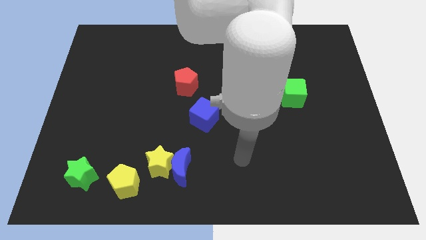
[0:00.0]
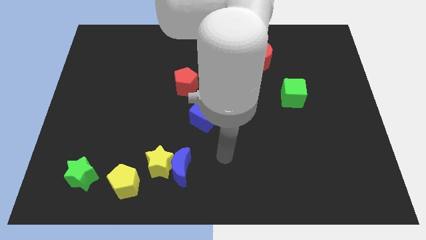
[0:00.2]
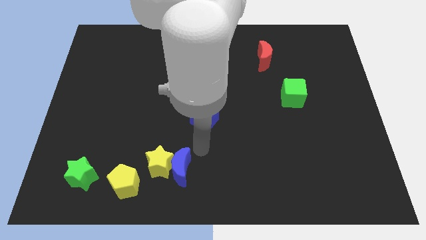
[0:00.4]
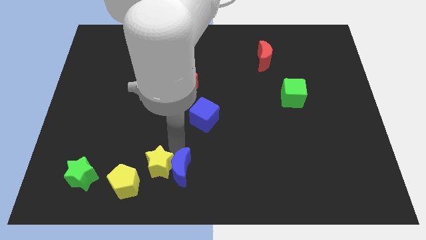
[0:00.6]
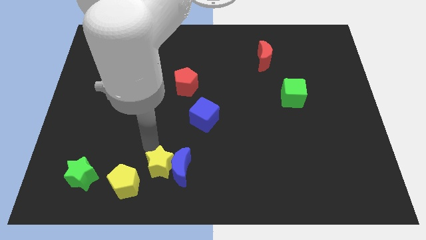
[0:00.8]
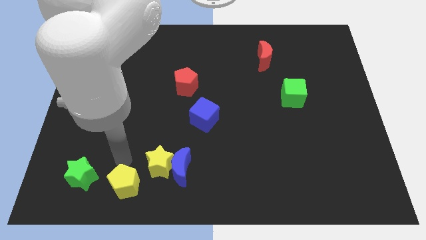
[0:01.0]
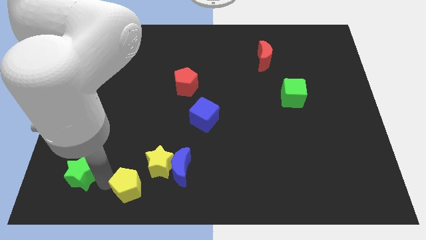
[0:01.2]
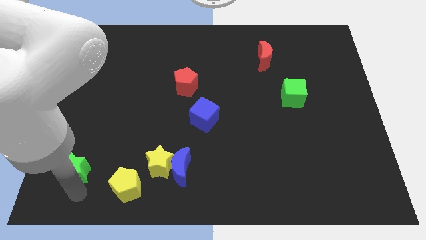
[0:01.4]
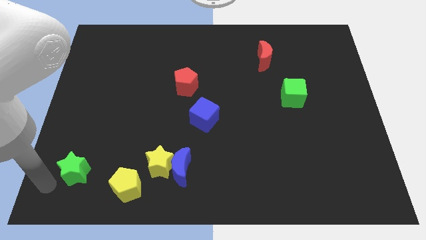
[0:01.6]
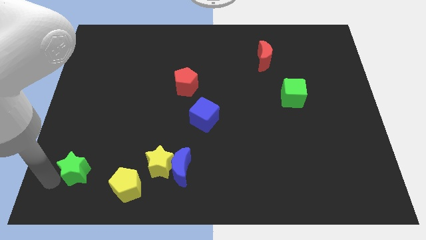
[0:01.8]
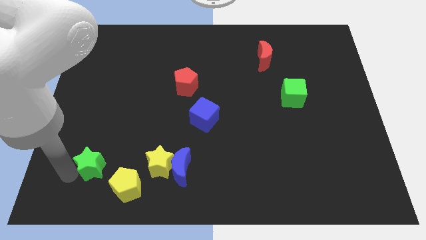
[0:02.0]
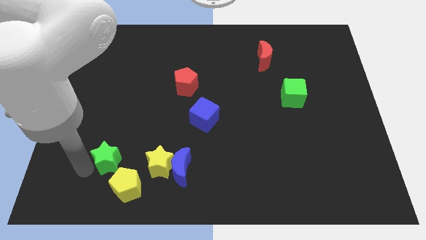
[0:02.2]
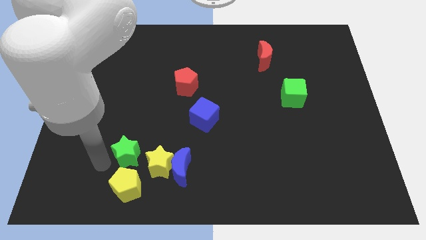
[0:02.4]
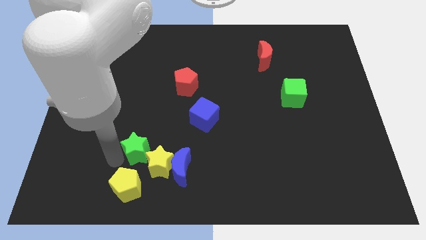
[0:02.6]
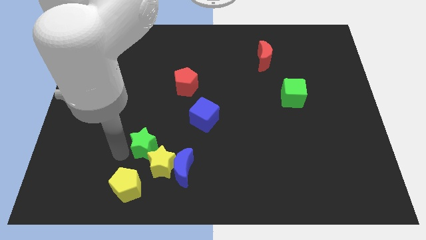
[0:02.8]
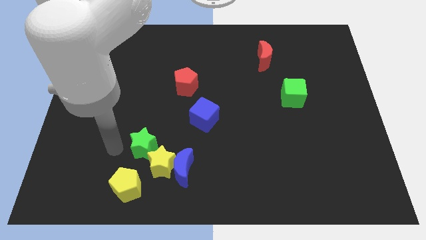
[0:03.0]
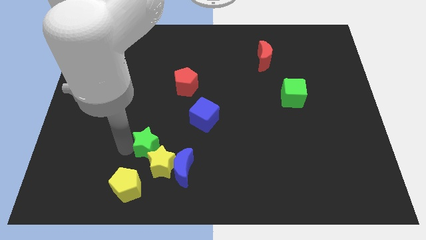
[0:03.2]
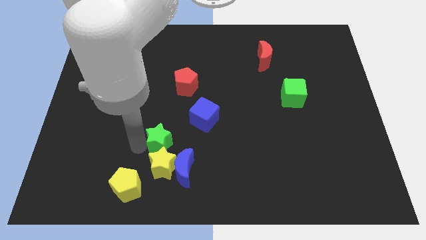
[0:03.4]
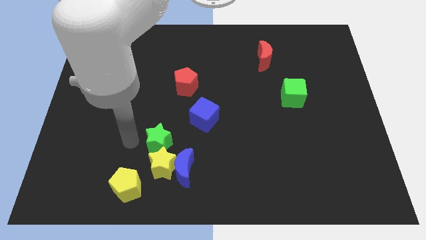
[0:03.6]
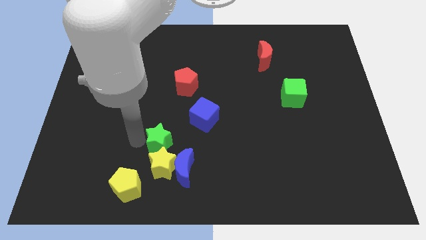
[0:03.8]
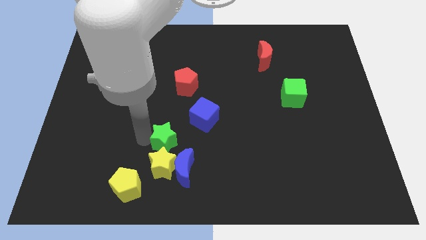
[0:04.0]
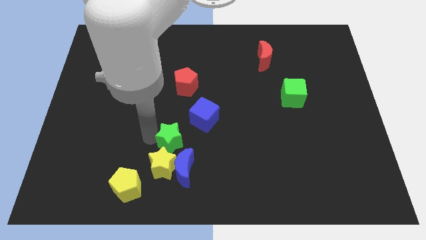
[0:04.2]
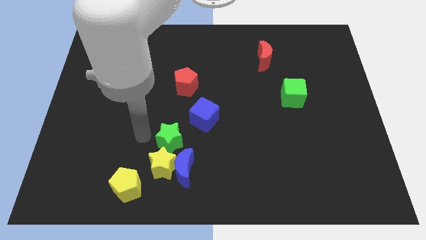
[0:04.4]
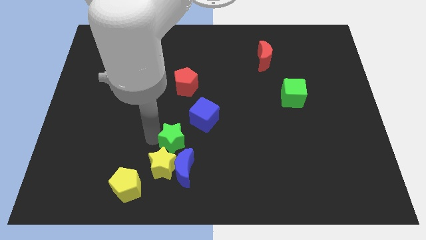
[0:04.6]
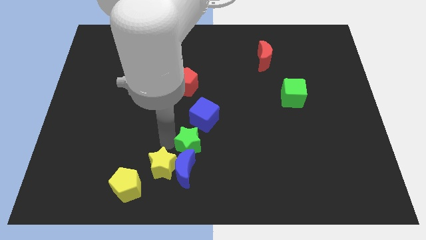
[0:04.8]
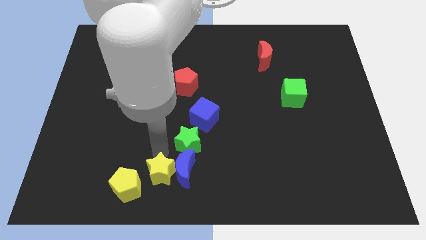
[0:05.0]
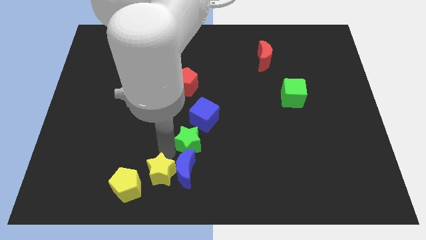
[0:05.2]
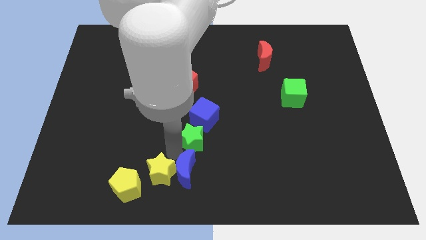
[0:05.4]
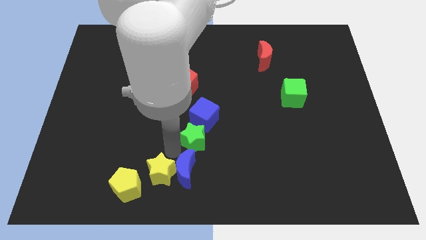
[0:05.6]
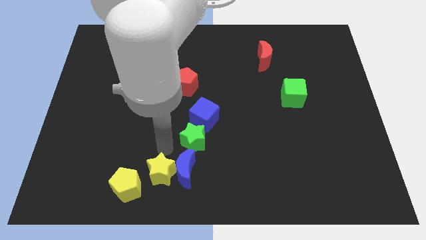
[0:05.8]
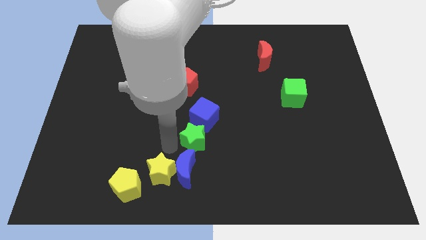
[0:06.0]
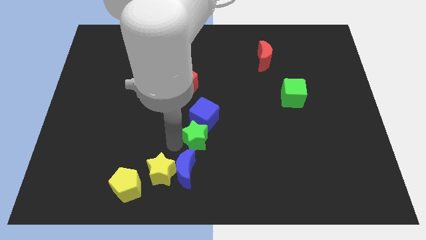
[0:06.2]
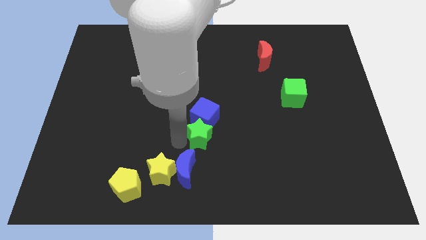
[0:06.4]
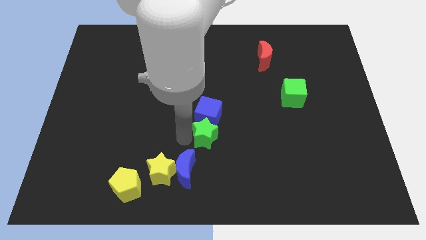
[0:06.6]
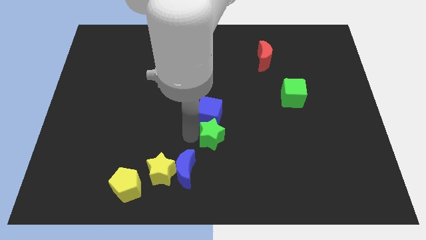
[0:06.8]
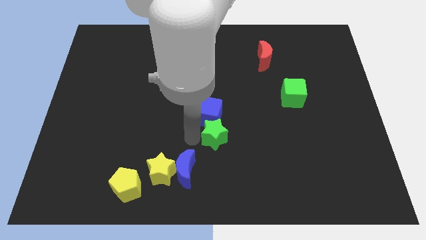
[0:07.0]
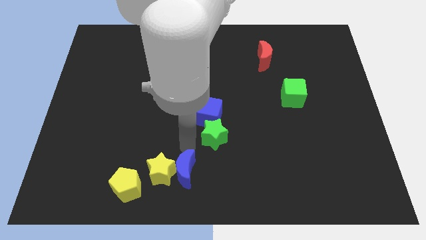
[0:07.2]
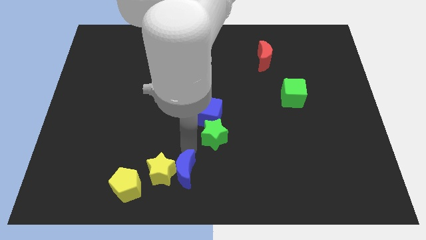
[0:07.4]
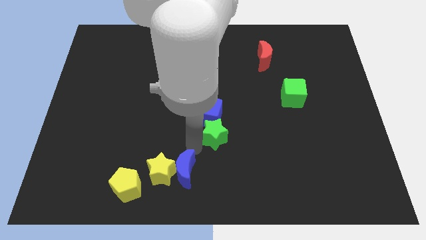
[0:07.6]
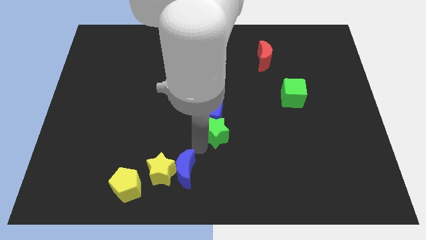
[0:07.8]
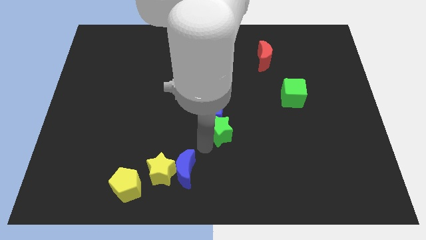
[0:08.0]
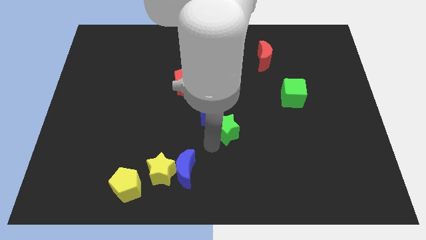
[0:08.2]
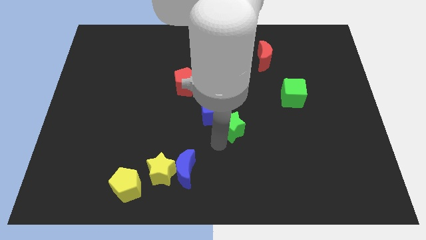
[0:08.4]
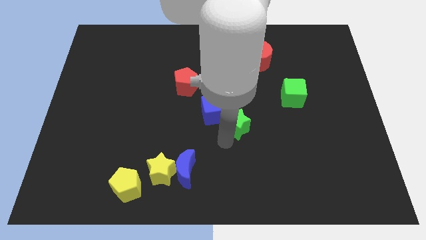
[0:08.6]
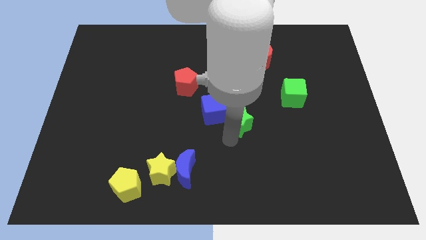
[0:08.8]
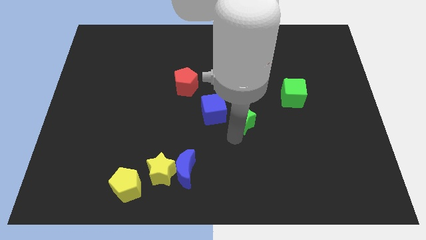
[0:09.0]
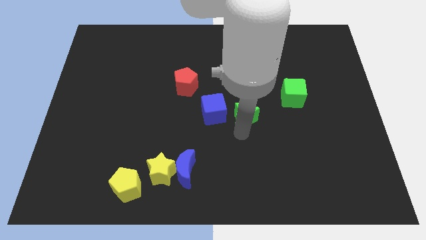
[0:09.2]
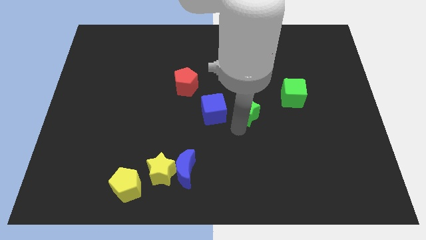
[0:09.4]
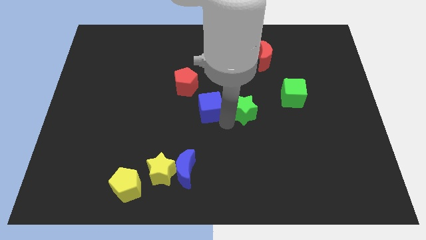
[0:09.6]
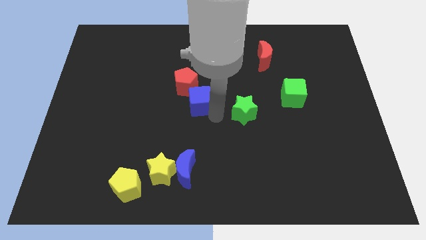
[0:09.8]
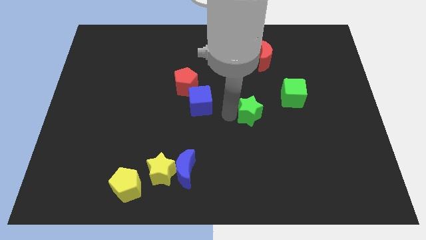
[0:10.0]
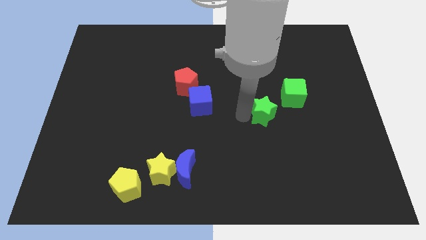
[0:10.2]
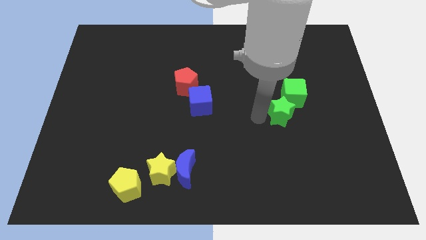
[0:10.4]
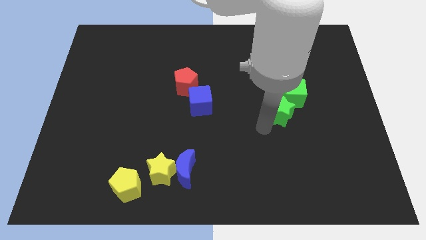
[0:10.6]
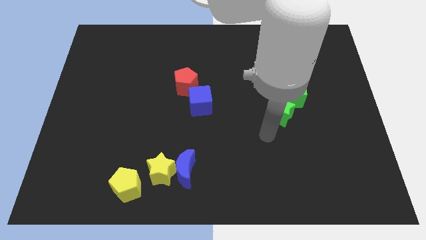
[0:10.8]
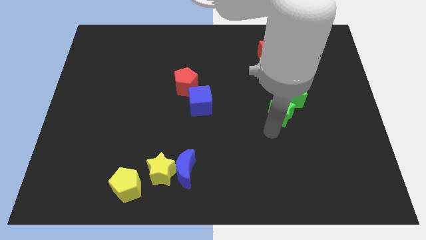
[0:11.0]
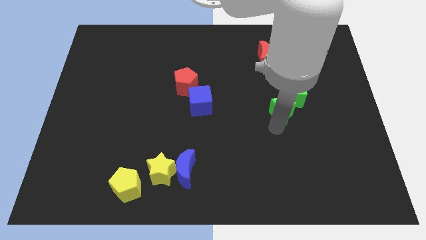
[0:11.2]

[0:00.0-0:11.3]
slide the green star next to the green cube

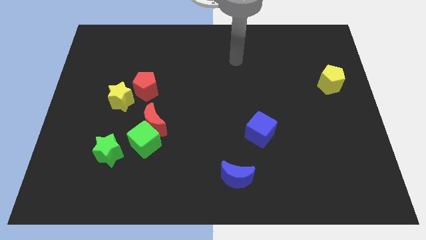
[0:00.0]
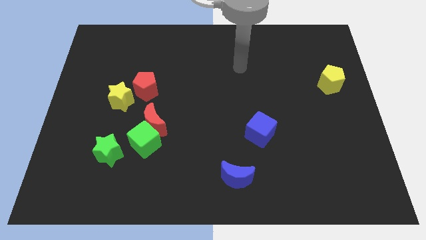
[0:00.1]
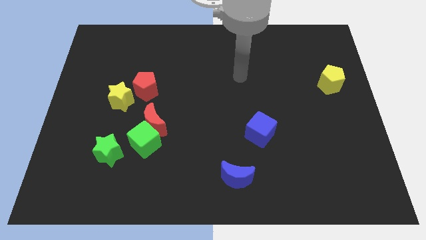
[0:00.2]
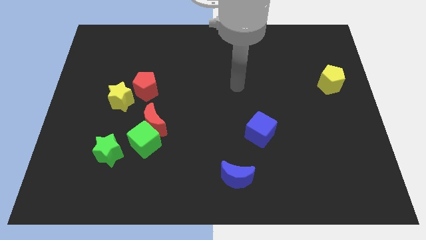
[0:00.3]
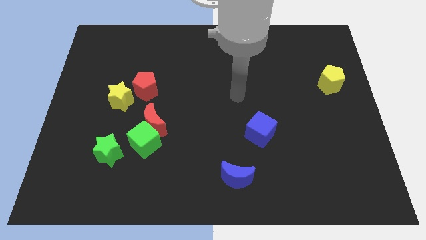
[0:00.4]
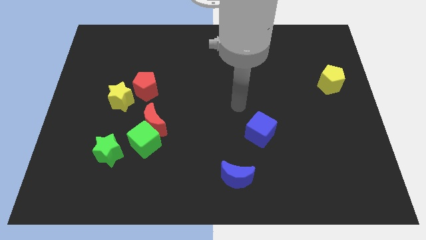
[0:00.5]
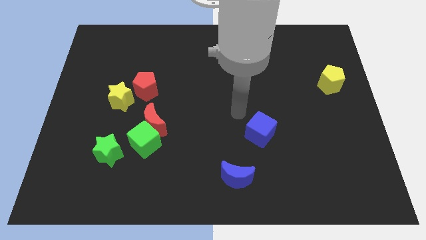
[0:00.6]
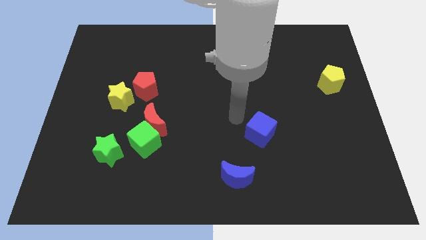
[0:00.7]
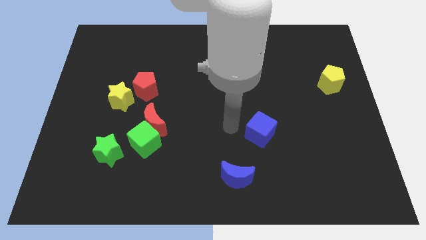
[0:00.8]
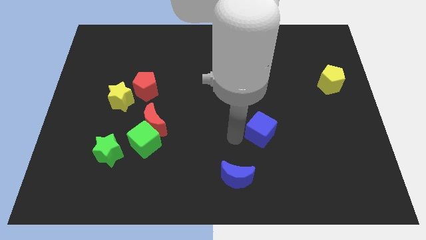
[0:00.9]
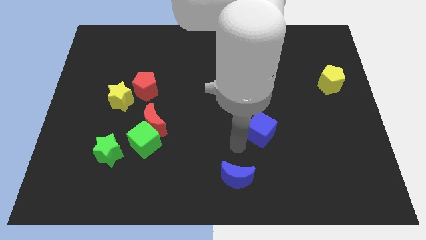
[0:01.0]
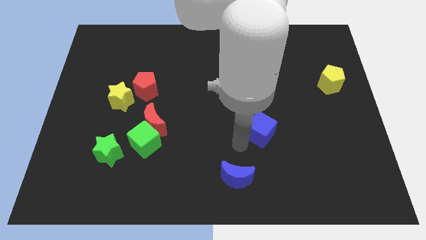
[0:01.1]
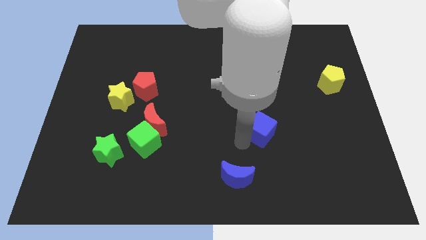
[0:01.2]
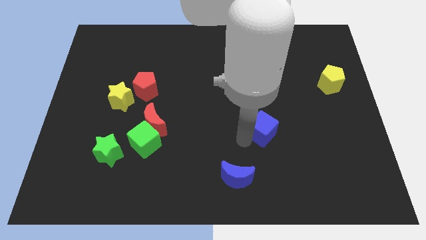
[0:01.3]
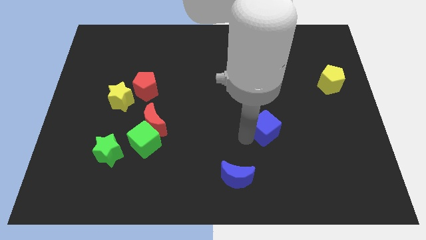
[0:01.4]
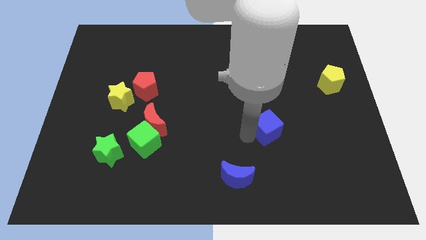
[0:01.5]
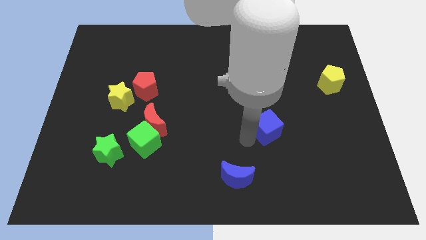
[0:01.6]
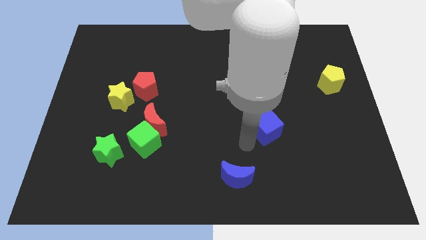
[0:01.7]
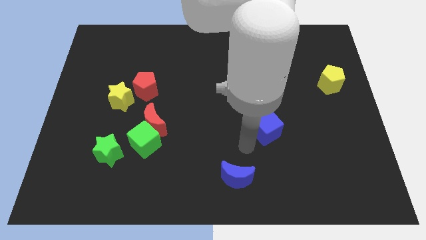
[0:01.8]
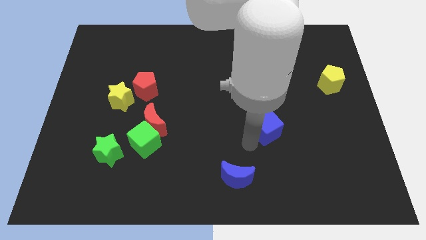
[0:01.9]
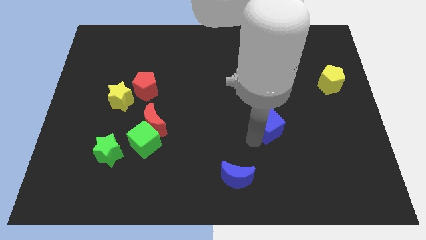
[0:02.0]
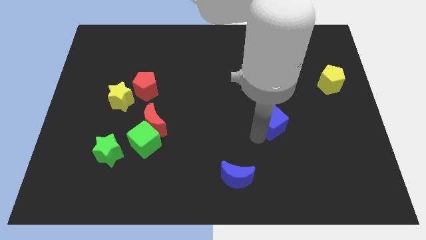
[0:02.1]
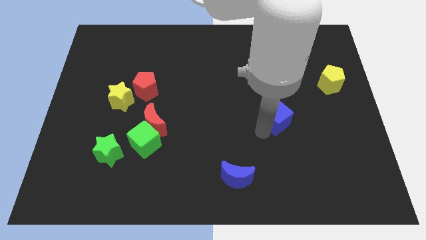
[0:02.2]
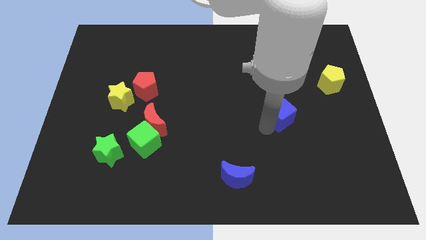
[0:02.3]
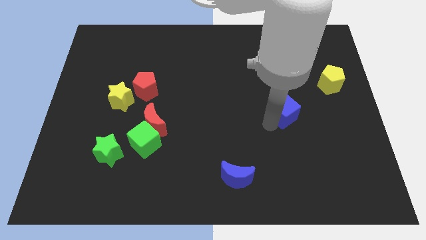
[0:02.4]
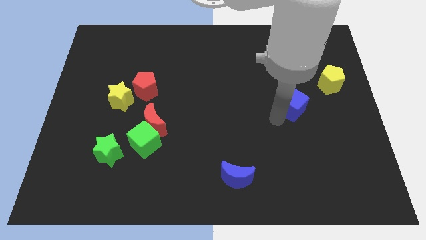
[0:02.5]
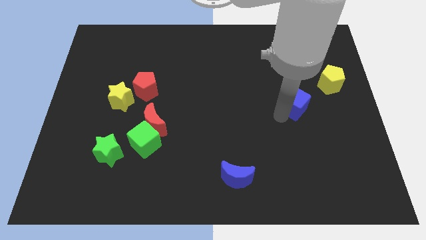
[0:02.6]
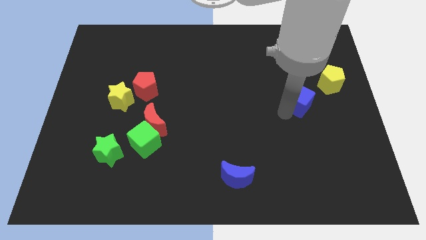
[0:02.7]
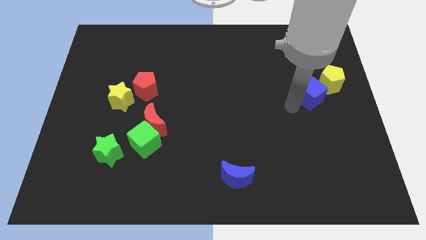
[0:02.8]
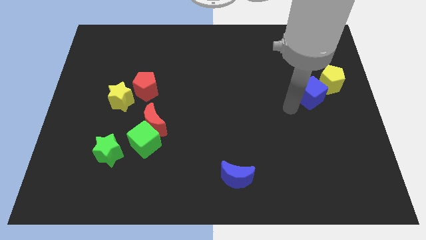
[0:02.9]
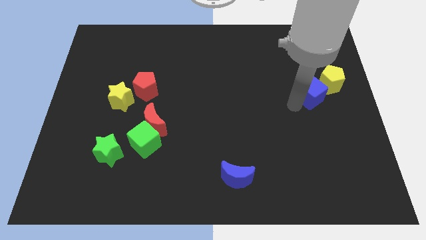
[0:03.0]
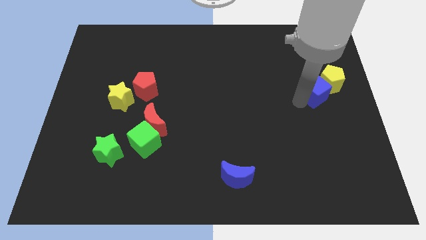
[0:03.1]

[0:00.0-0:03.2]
put the blue cube close to the yellow pentagon
